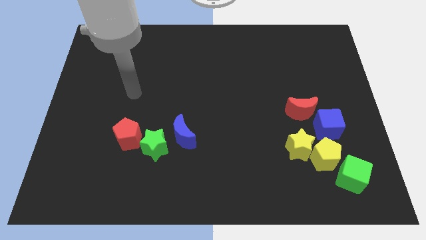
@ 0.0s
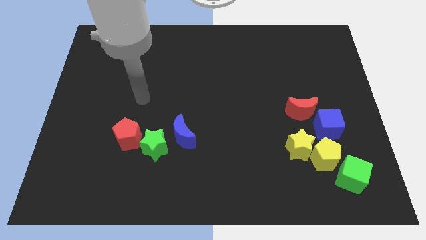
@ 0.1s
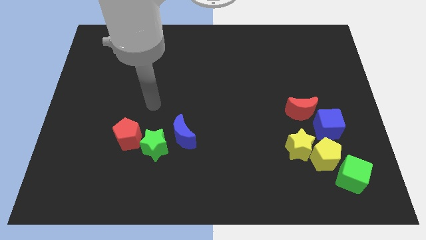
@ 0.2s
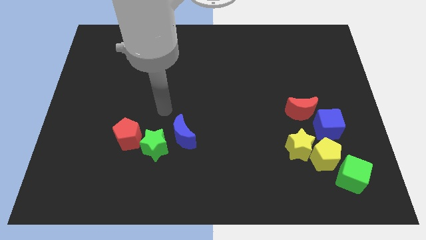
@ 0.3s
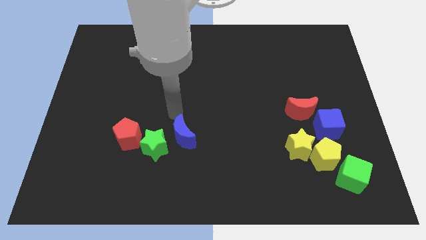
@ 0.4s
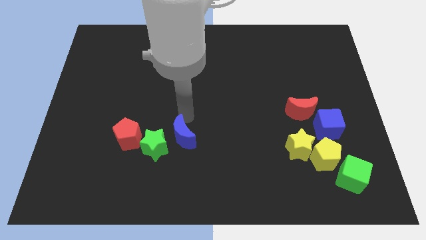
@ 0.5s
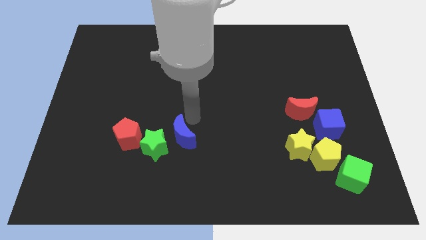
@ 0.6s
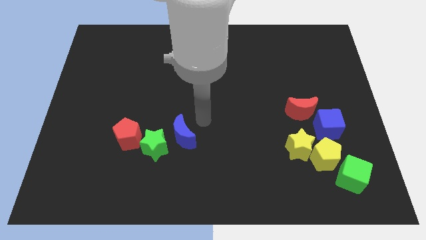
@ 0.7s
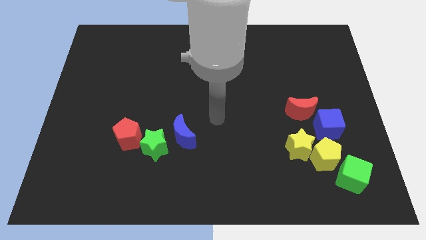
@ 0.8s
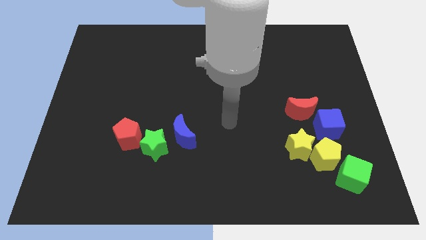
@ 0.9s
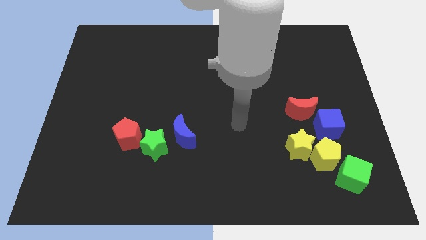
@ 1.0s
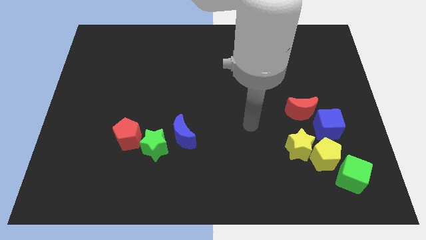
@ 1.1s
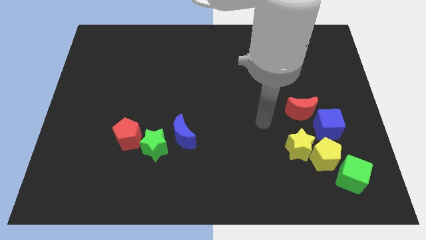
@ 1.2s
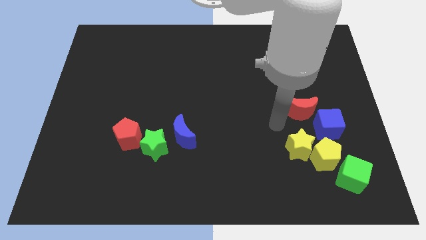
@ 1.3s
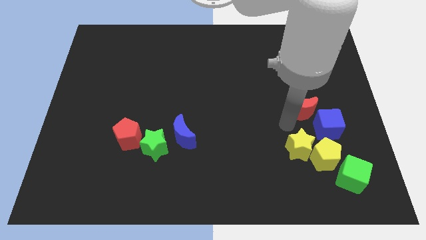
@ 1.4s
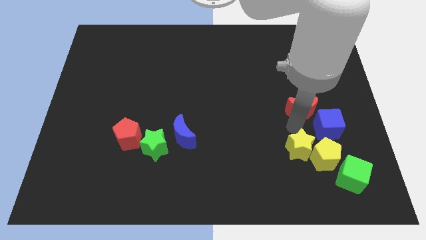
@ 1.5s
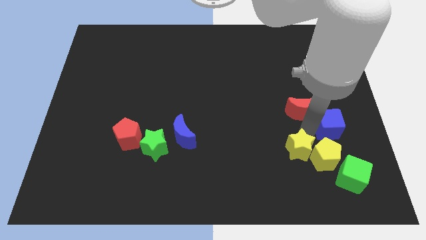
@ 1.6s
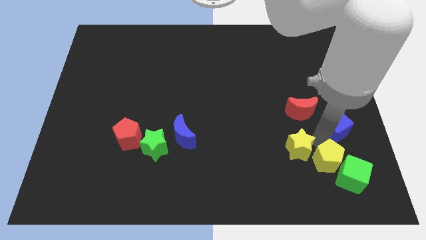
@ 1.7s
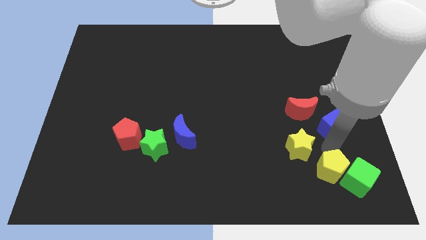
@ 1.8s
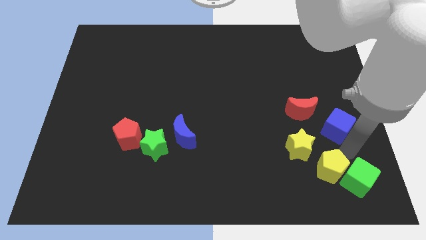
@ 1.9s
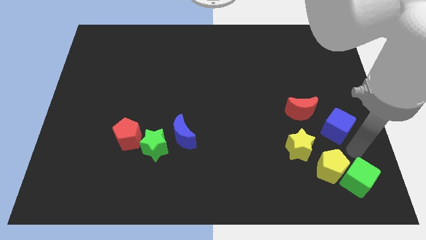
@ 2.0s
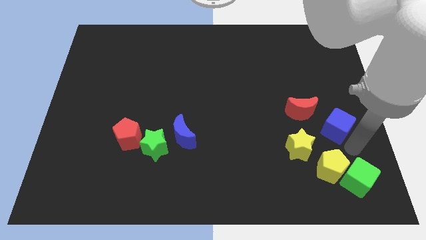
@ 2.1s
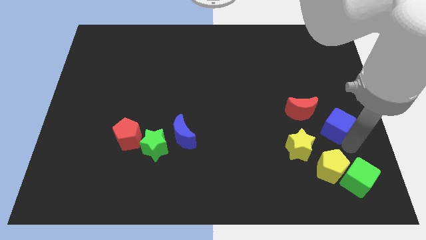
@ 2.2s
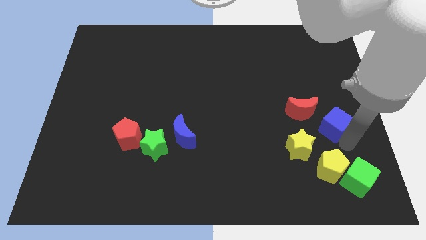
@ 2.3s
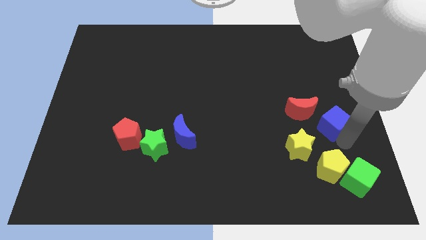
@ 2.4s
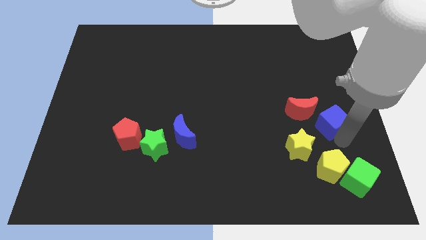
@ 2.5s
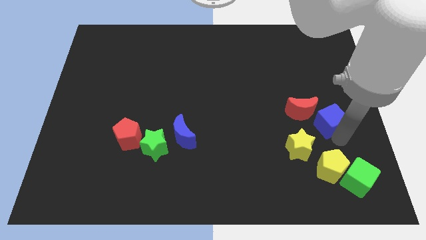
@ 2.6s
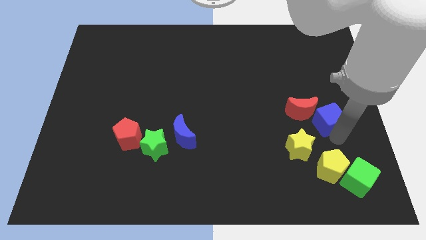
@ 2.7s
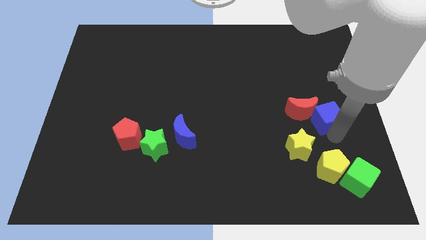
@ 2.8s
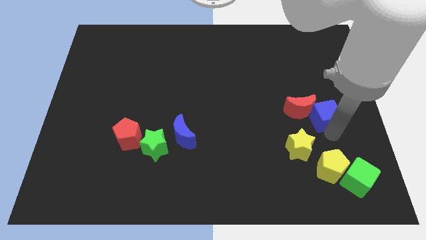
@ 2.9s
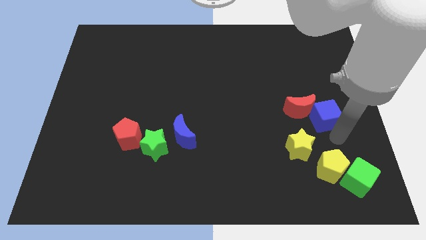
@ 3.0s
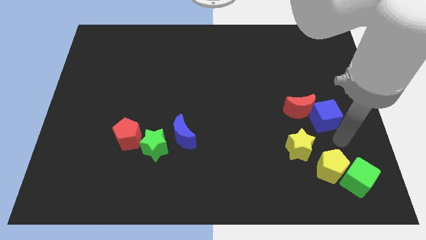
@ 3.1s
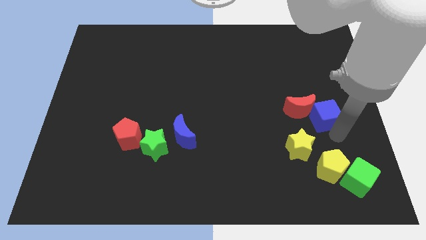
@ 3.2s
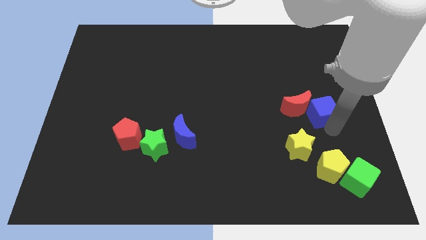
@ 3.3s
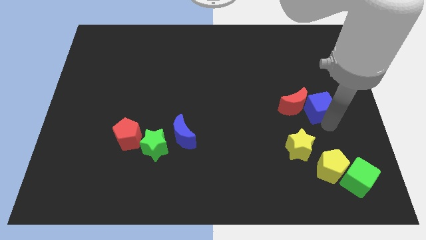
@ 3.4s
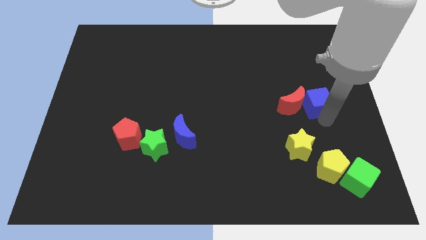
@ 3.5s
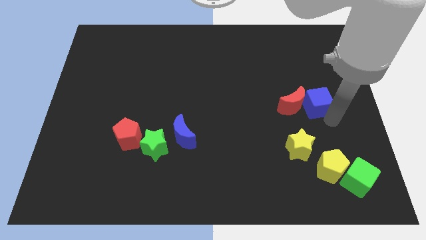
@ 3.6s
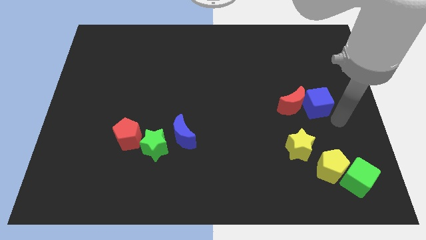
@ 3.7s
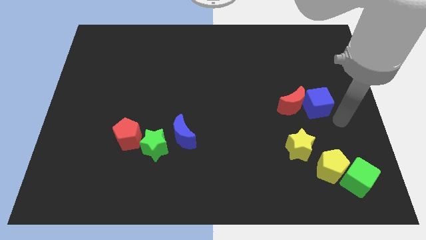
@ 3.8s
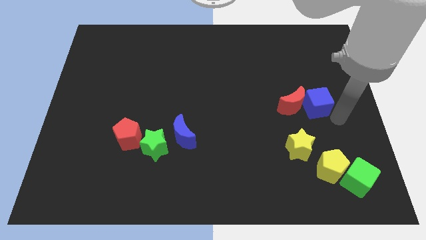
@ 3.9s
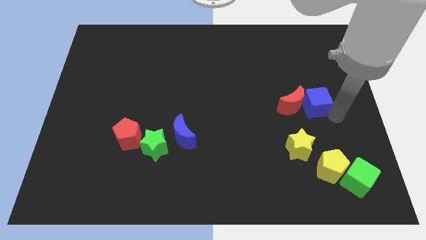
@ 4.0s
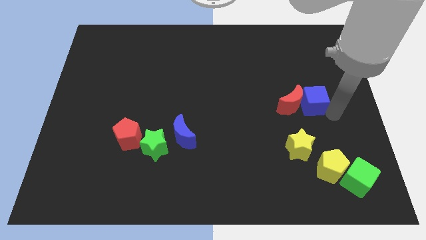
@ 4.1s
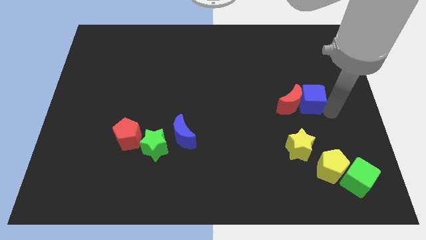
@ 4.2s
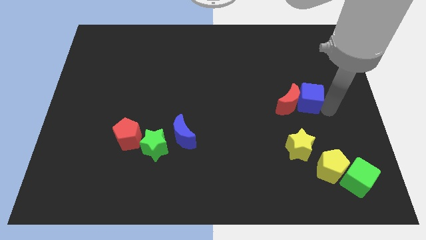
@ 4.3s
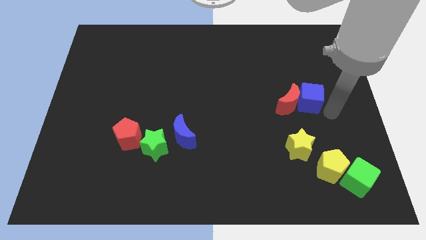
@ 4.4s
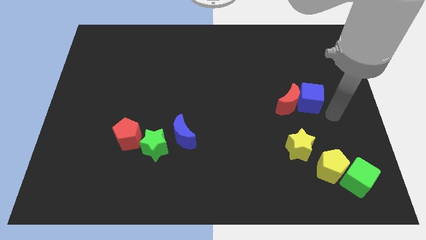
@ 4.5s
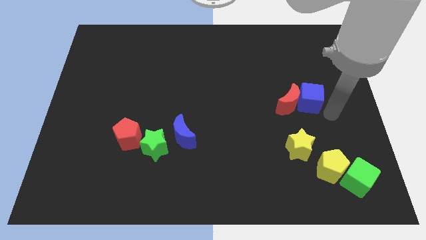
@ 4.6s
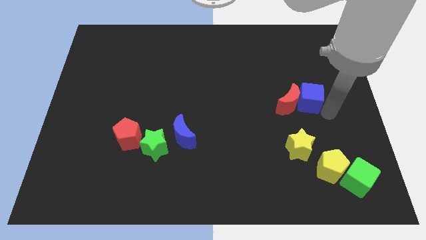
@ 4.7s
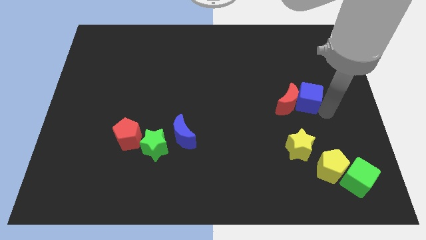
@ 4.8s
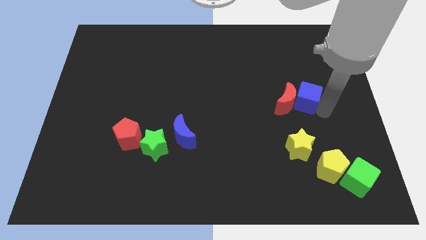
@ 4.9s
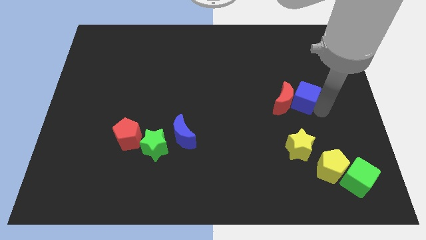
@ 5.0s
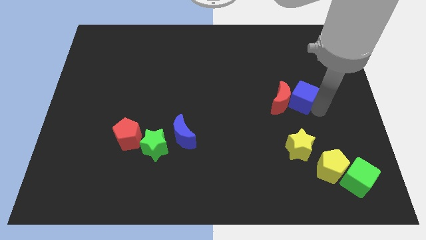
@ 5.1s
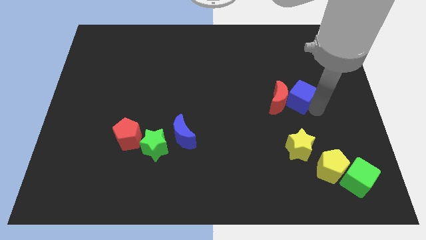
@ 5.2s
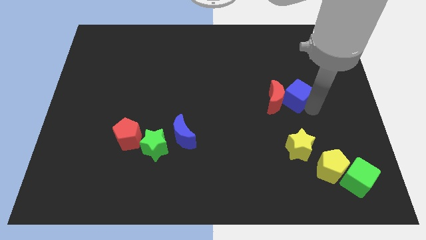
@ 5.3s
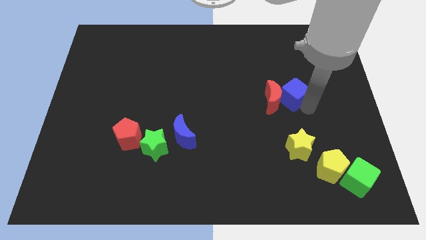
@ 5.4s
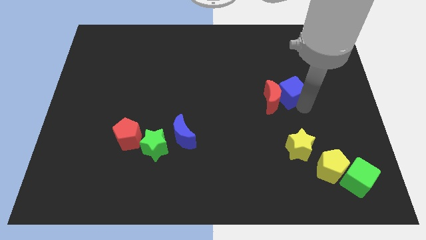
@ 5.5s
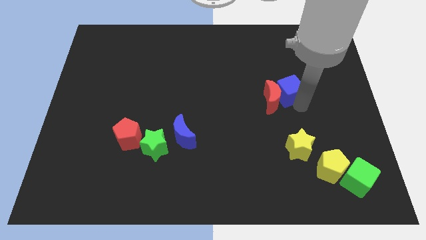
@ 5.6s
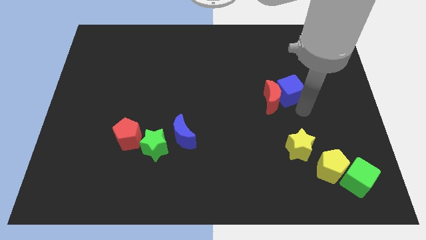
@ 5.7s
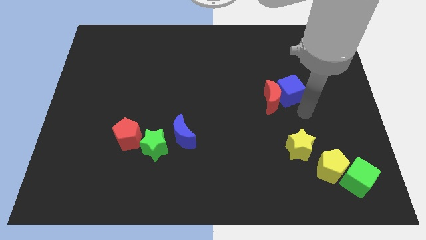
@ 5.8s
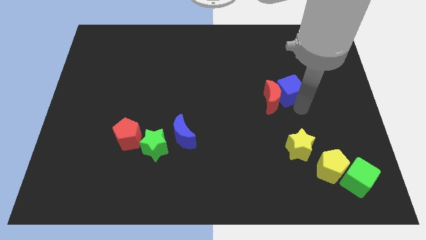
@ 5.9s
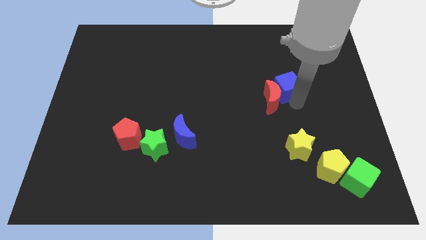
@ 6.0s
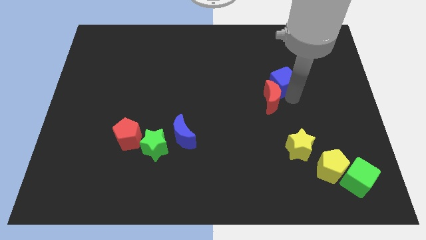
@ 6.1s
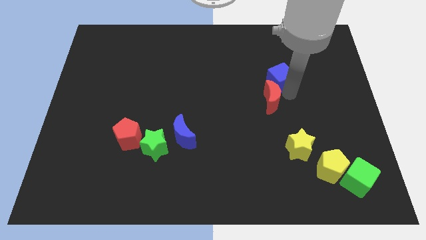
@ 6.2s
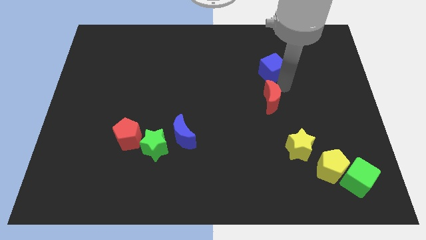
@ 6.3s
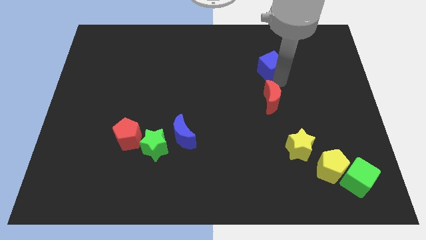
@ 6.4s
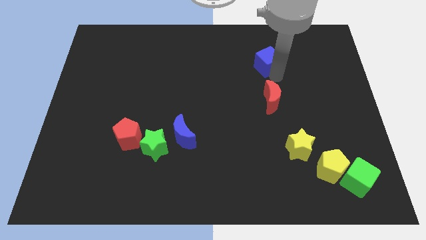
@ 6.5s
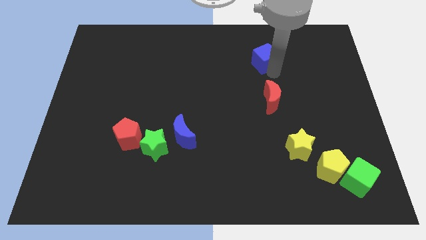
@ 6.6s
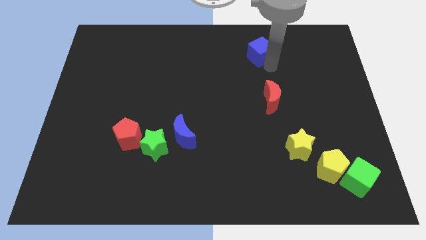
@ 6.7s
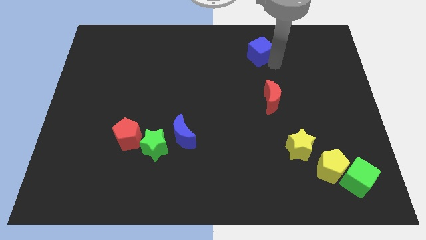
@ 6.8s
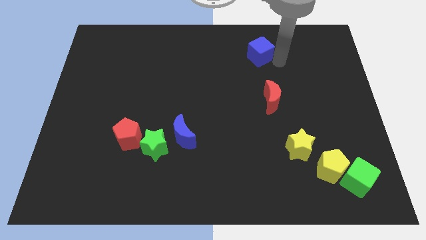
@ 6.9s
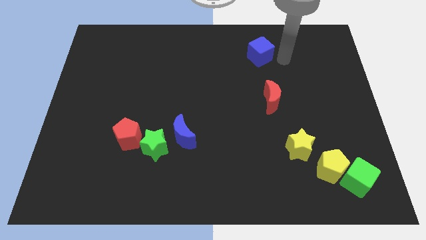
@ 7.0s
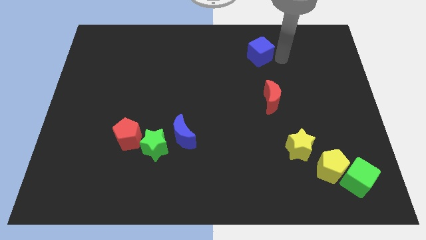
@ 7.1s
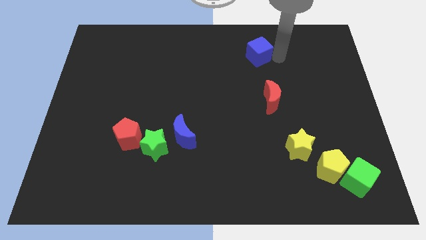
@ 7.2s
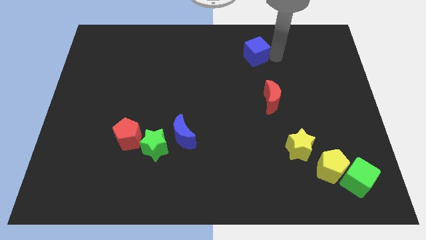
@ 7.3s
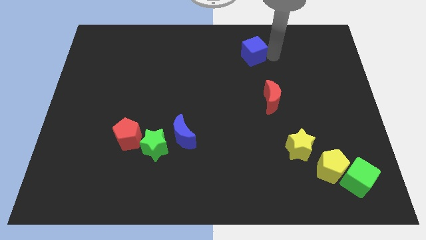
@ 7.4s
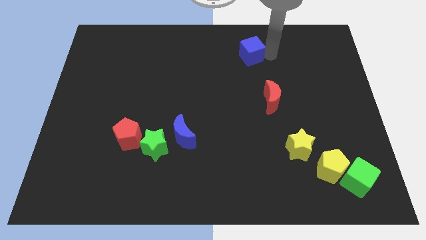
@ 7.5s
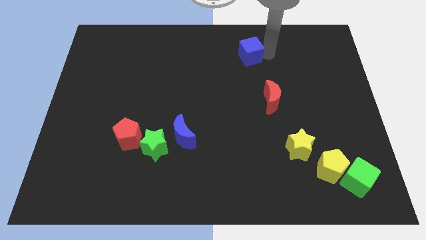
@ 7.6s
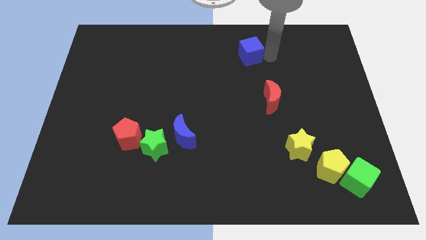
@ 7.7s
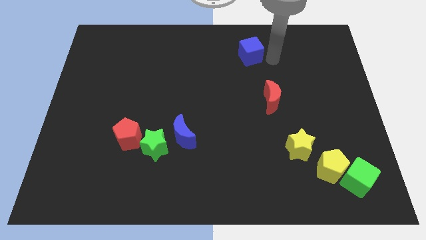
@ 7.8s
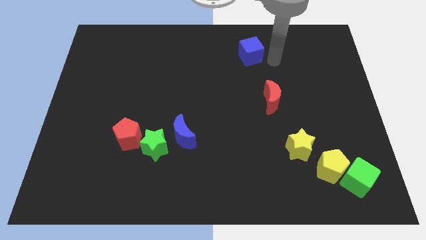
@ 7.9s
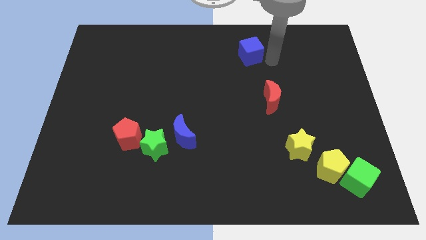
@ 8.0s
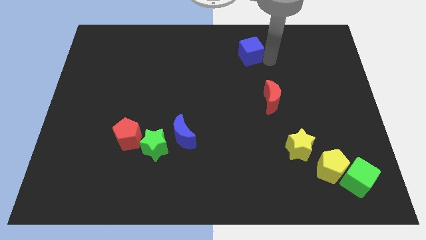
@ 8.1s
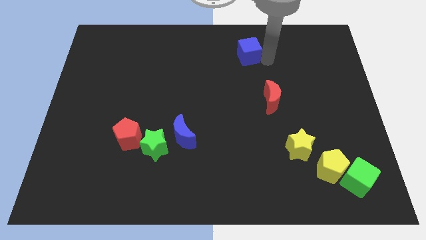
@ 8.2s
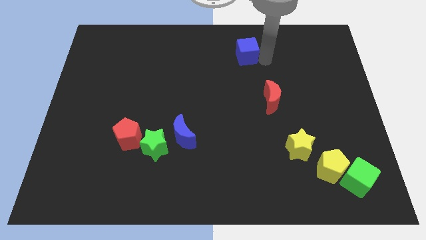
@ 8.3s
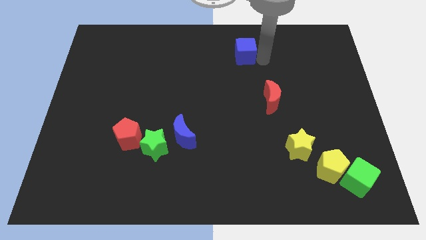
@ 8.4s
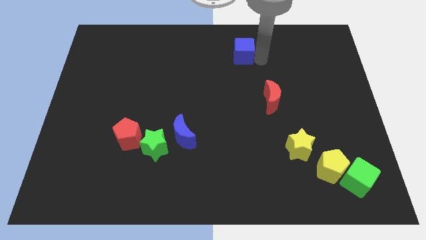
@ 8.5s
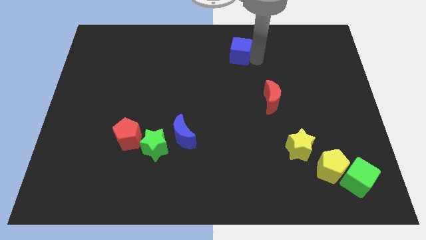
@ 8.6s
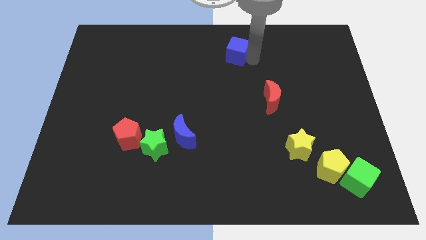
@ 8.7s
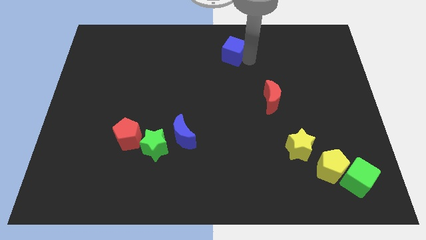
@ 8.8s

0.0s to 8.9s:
put the blue cube to the towards your base
